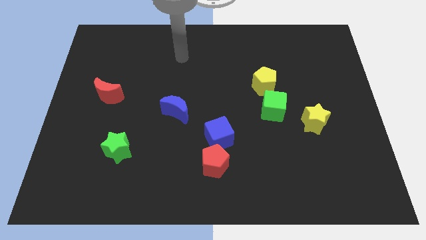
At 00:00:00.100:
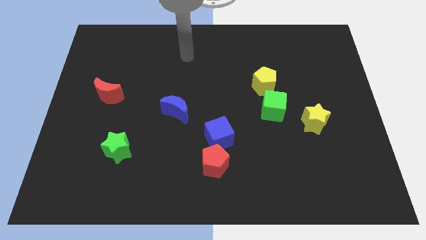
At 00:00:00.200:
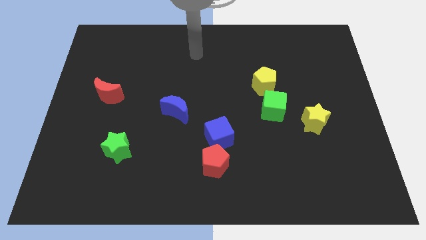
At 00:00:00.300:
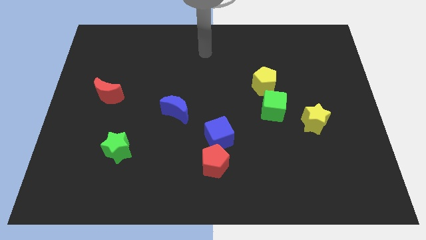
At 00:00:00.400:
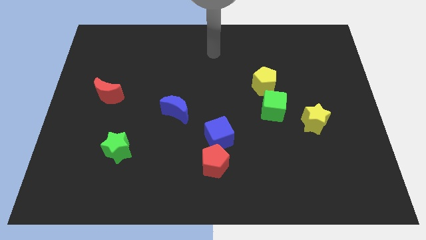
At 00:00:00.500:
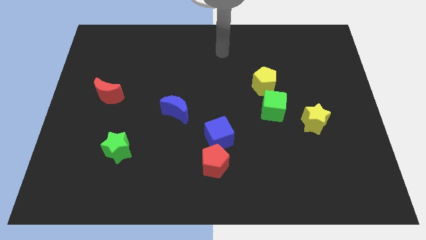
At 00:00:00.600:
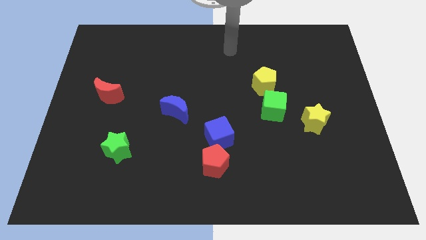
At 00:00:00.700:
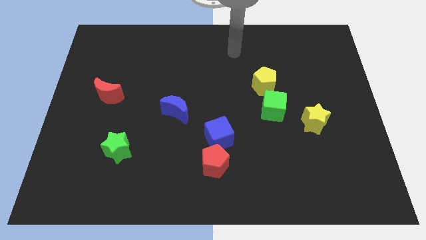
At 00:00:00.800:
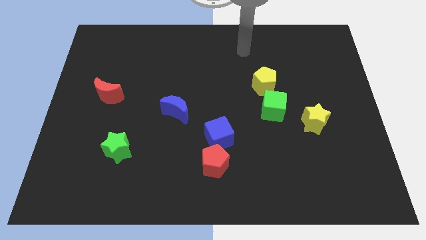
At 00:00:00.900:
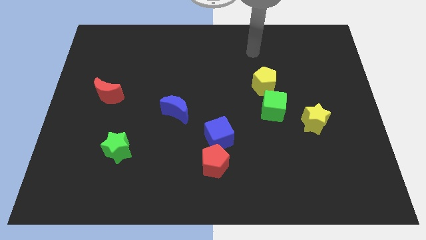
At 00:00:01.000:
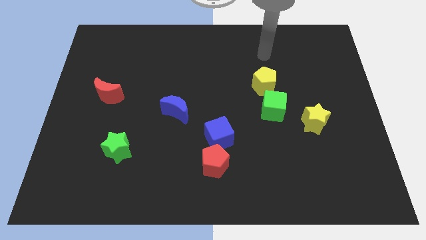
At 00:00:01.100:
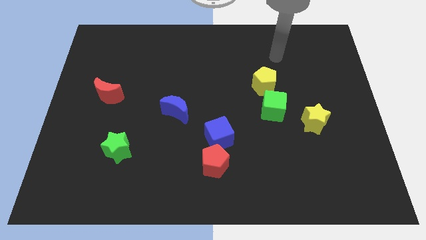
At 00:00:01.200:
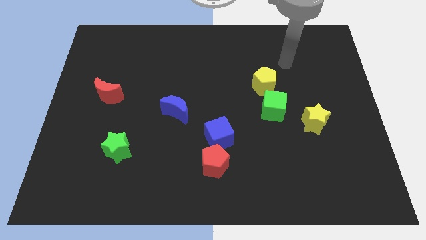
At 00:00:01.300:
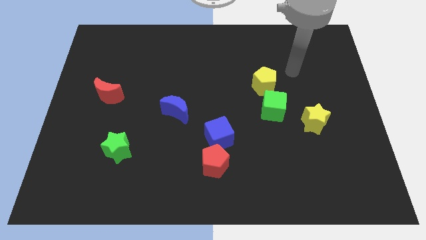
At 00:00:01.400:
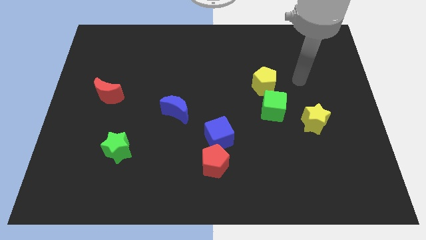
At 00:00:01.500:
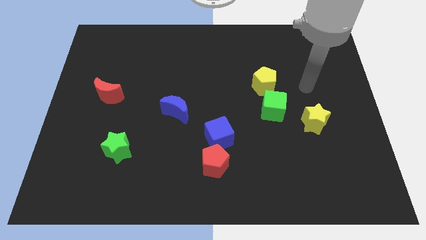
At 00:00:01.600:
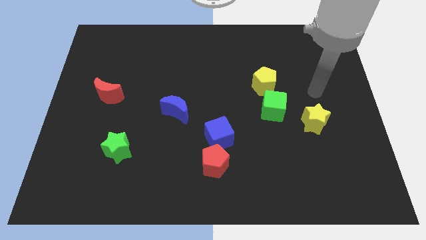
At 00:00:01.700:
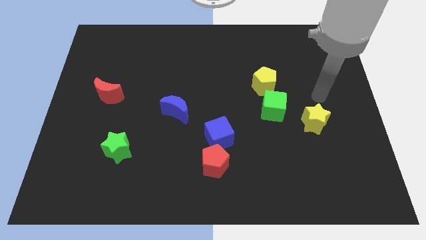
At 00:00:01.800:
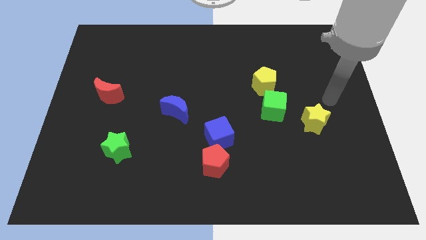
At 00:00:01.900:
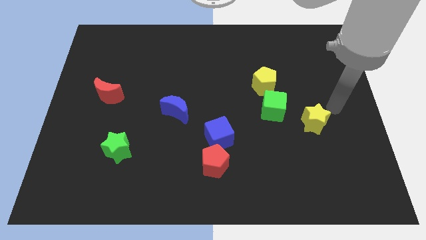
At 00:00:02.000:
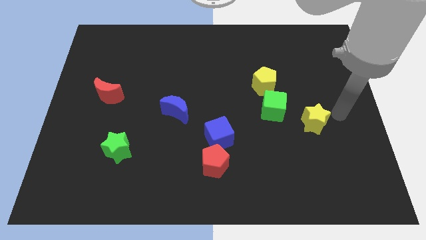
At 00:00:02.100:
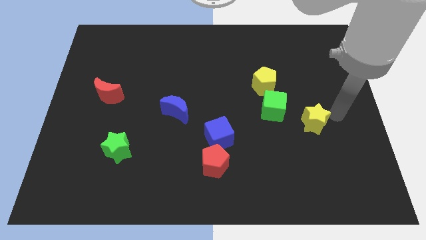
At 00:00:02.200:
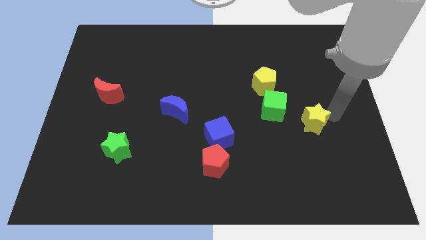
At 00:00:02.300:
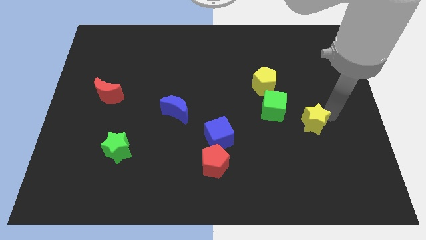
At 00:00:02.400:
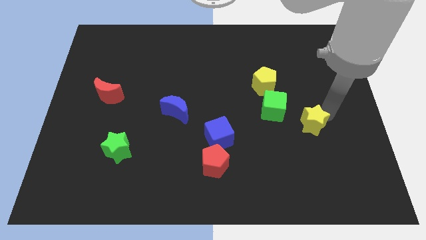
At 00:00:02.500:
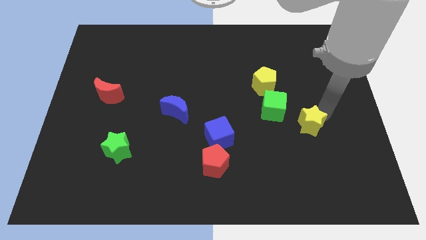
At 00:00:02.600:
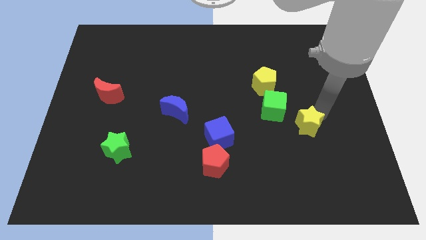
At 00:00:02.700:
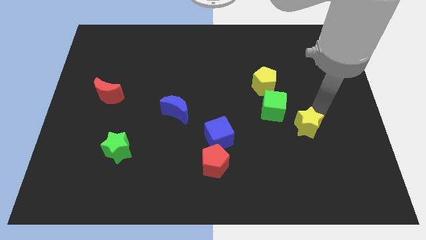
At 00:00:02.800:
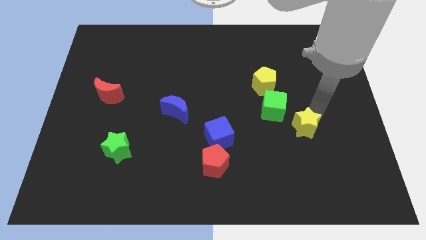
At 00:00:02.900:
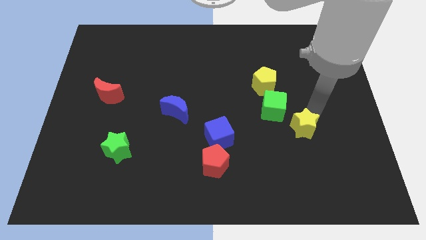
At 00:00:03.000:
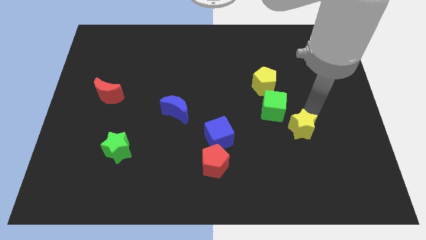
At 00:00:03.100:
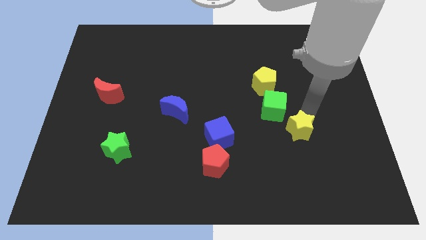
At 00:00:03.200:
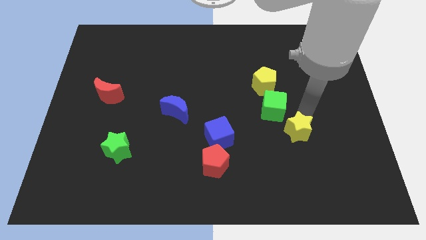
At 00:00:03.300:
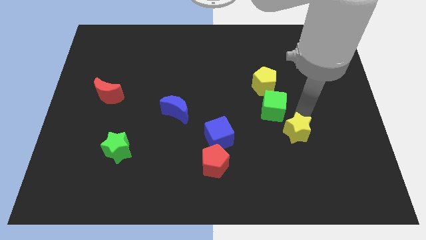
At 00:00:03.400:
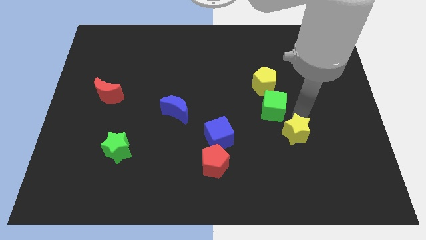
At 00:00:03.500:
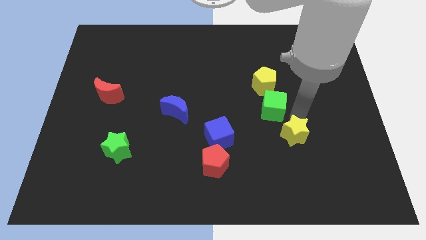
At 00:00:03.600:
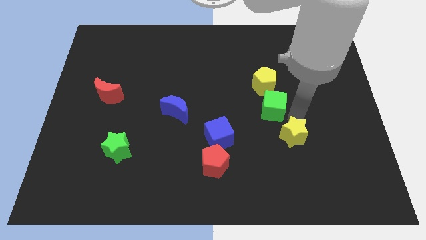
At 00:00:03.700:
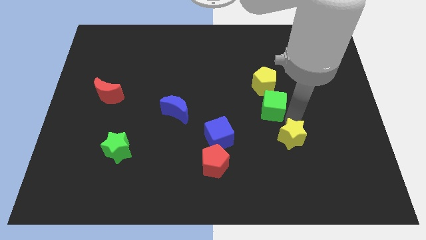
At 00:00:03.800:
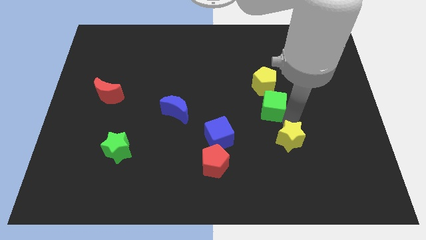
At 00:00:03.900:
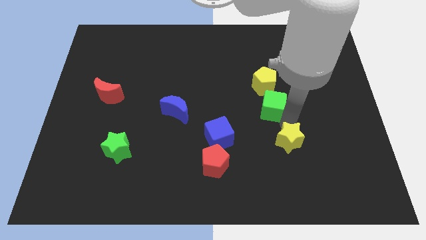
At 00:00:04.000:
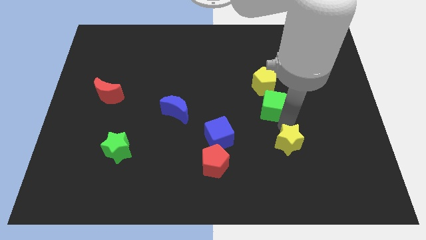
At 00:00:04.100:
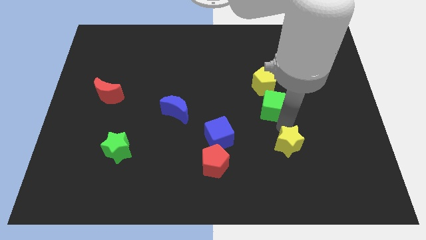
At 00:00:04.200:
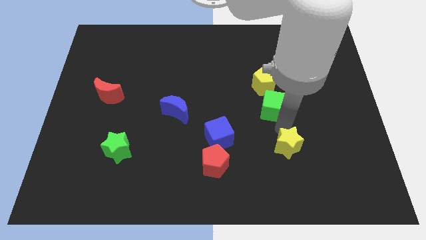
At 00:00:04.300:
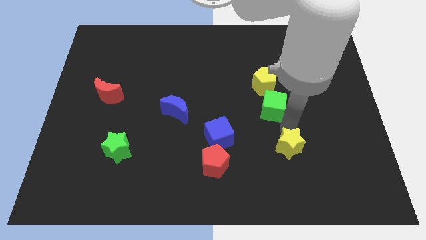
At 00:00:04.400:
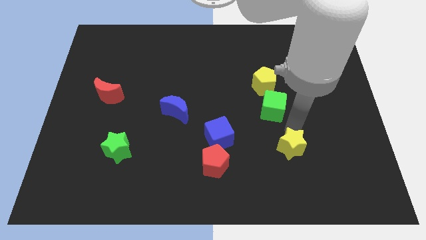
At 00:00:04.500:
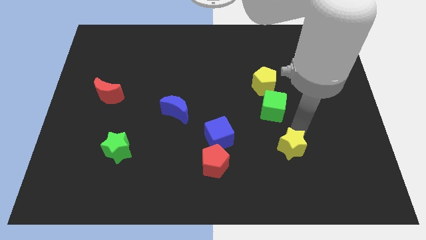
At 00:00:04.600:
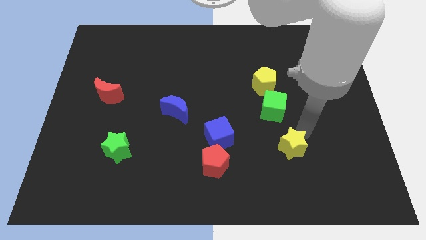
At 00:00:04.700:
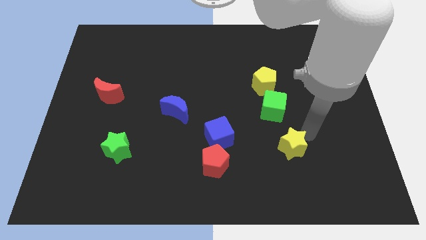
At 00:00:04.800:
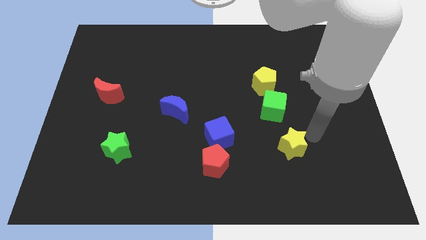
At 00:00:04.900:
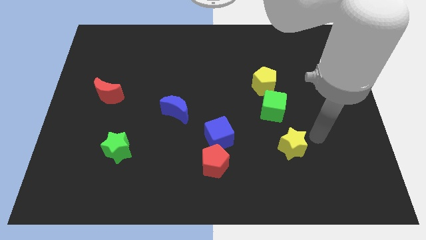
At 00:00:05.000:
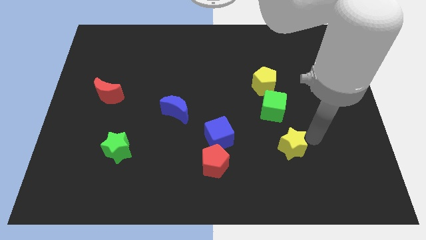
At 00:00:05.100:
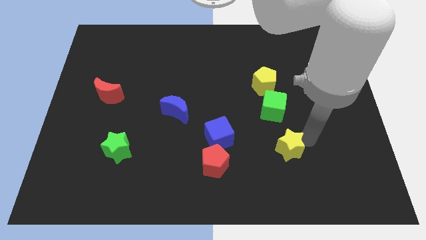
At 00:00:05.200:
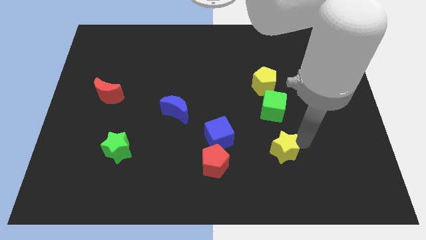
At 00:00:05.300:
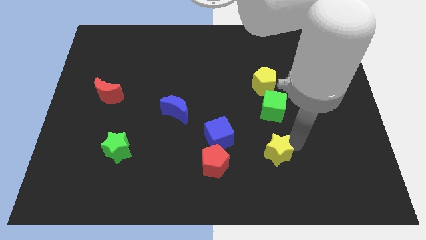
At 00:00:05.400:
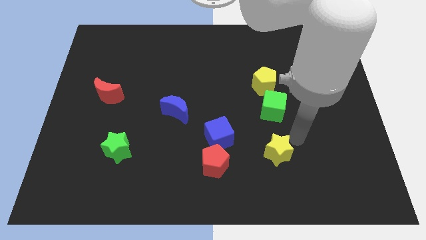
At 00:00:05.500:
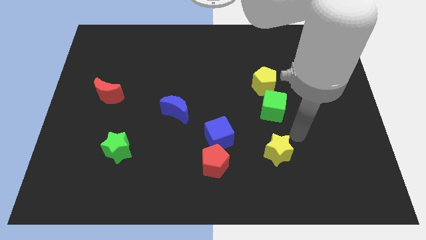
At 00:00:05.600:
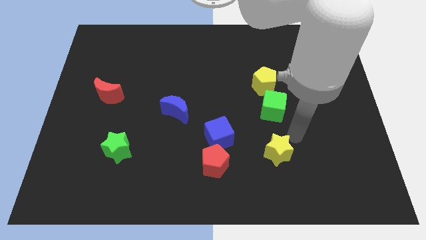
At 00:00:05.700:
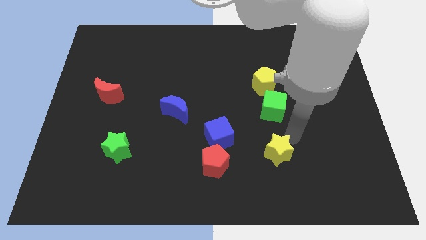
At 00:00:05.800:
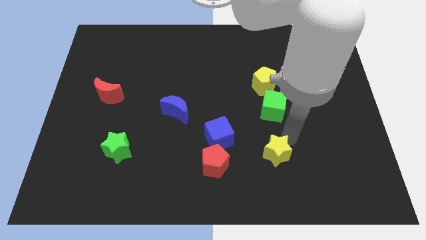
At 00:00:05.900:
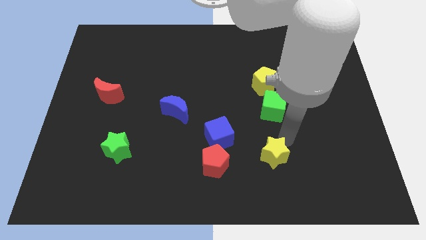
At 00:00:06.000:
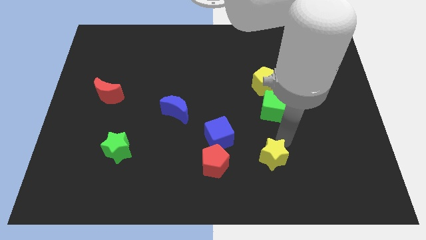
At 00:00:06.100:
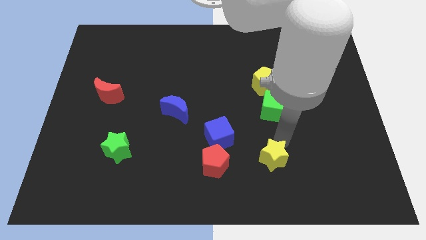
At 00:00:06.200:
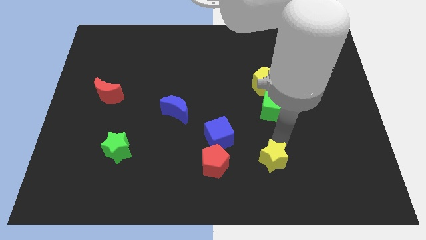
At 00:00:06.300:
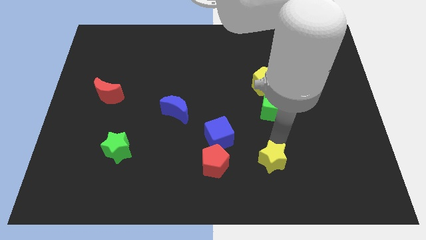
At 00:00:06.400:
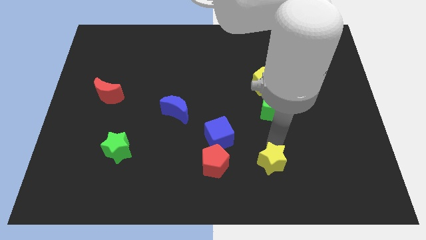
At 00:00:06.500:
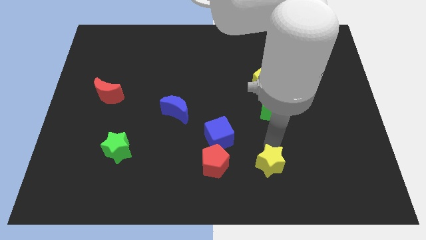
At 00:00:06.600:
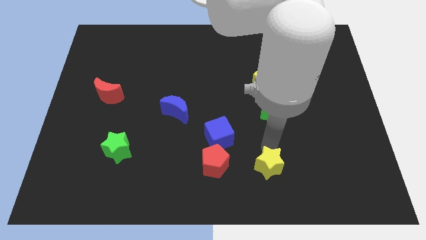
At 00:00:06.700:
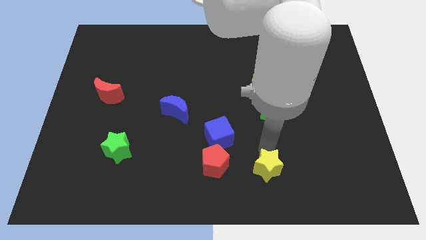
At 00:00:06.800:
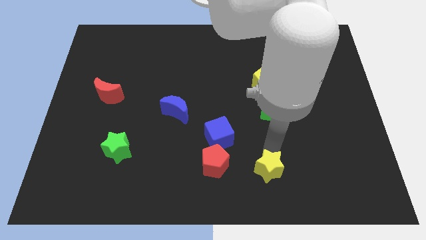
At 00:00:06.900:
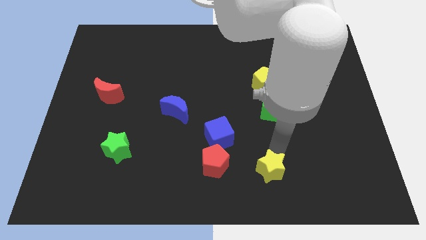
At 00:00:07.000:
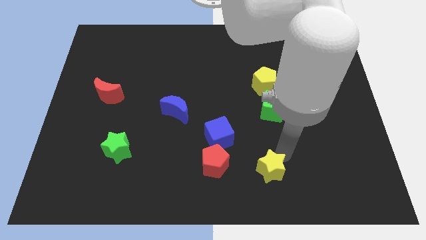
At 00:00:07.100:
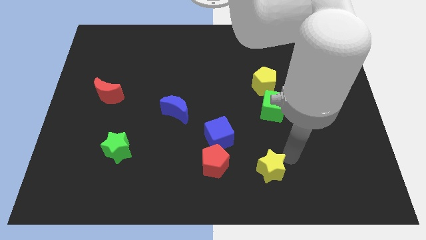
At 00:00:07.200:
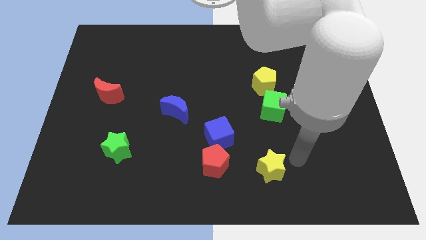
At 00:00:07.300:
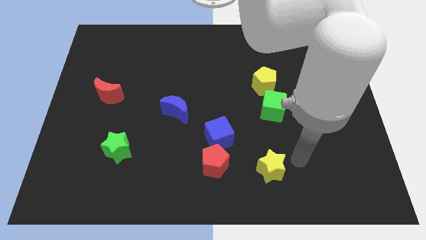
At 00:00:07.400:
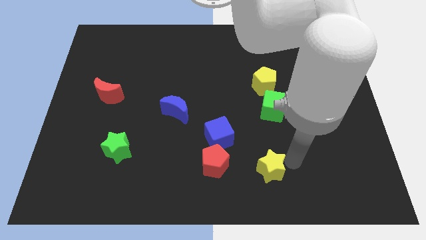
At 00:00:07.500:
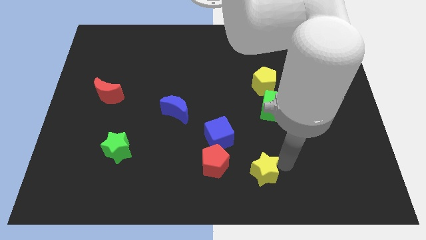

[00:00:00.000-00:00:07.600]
move the yellow star to the bottom
